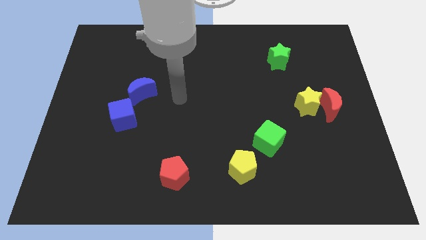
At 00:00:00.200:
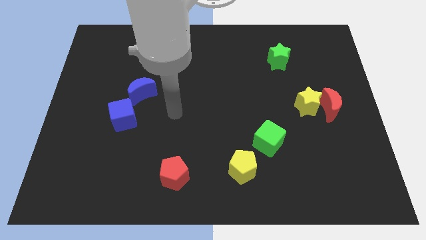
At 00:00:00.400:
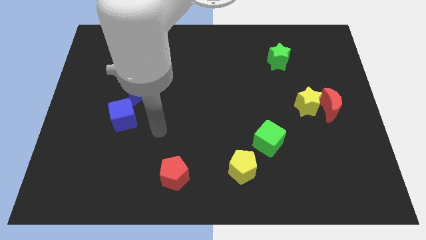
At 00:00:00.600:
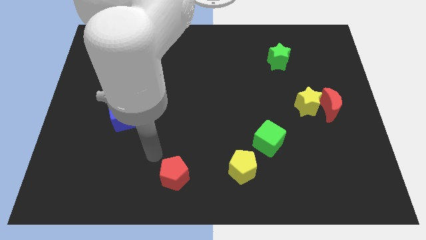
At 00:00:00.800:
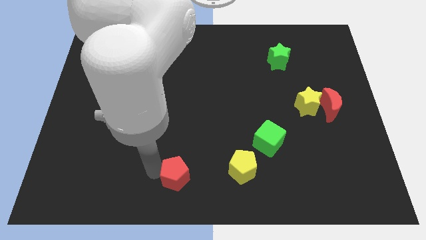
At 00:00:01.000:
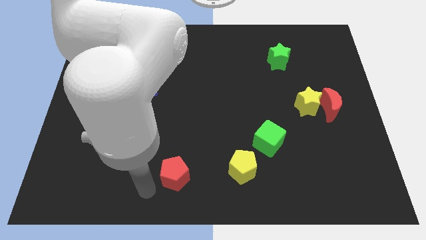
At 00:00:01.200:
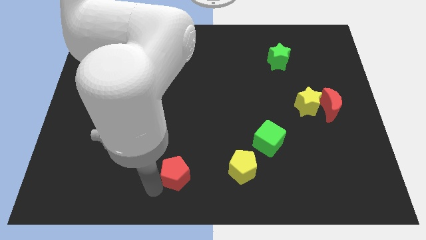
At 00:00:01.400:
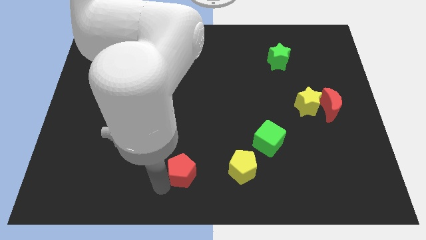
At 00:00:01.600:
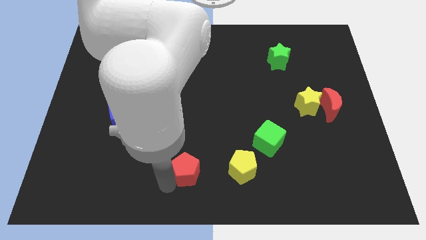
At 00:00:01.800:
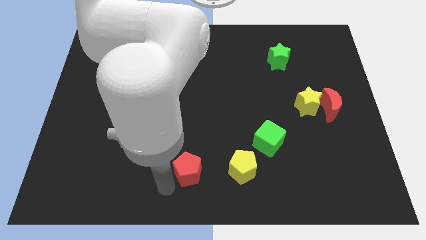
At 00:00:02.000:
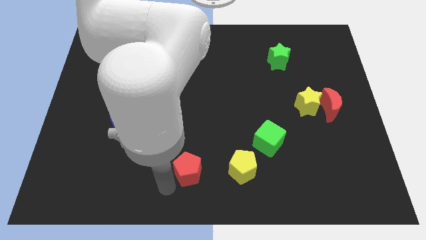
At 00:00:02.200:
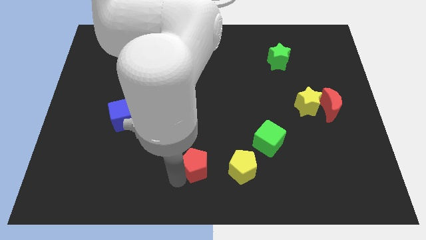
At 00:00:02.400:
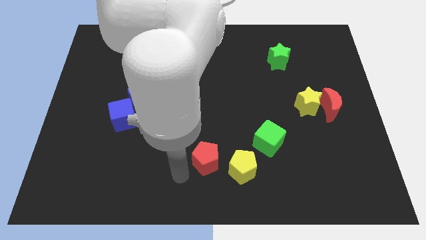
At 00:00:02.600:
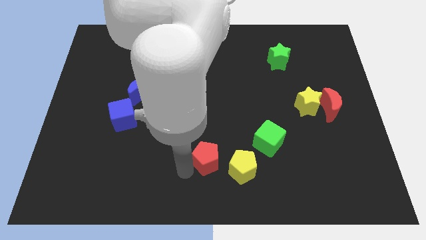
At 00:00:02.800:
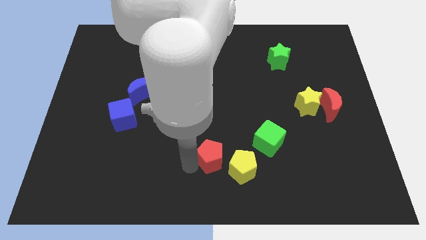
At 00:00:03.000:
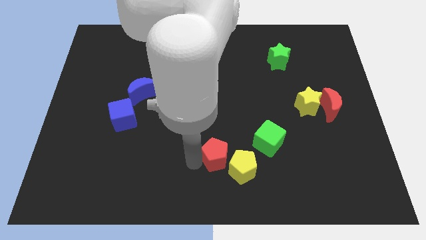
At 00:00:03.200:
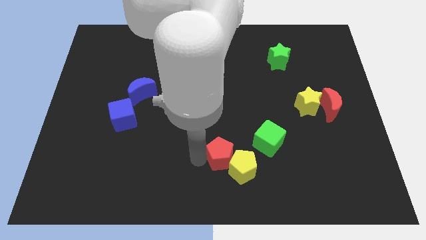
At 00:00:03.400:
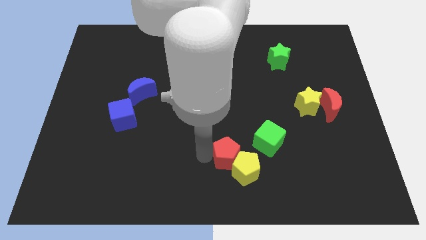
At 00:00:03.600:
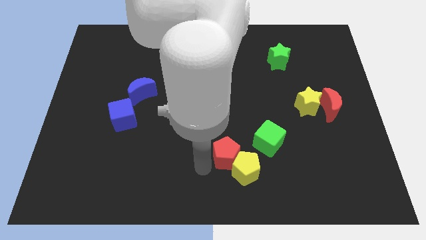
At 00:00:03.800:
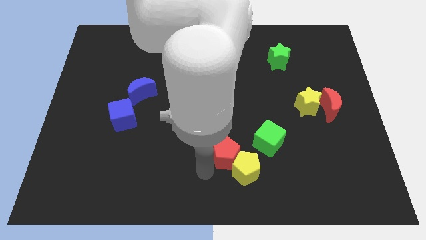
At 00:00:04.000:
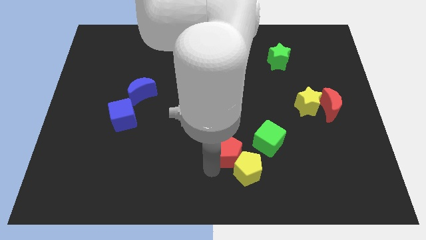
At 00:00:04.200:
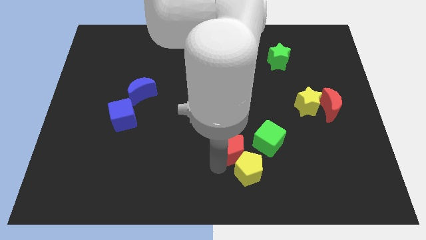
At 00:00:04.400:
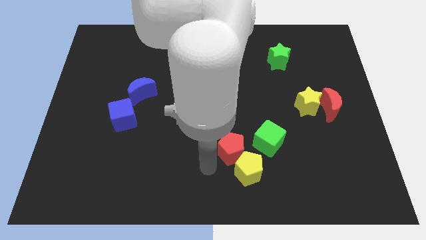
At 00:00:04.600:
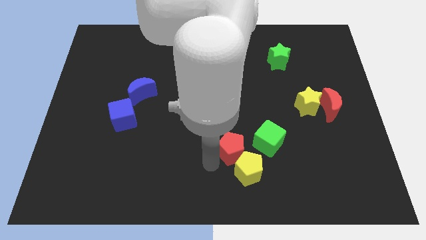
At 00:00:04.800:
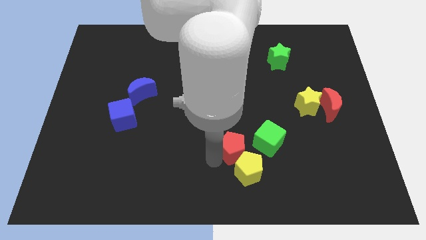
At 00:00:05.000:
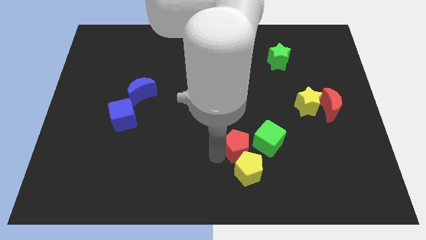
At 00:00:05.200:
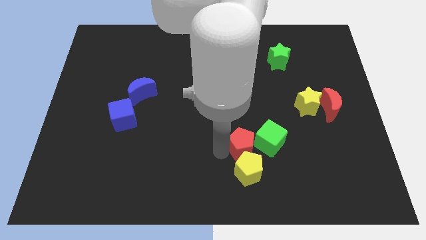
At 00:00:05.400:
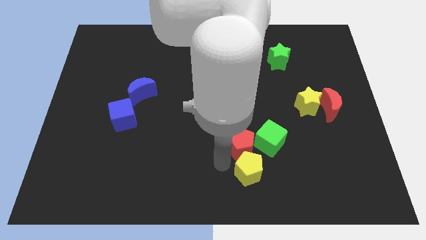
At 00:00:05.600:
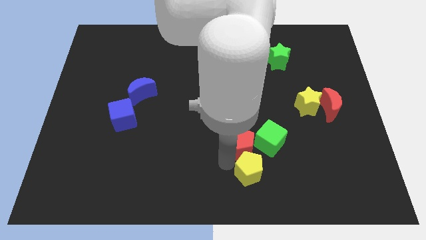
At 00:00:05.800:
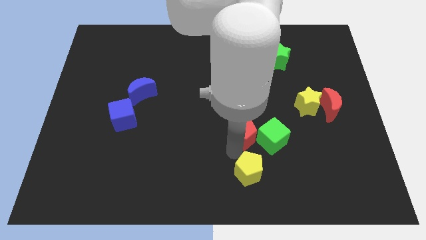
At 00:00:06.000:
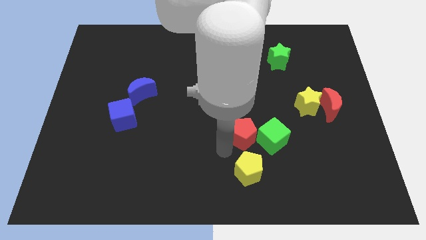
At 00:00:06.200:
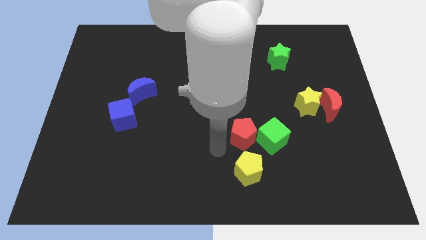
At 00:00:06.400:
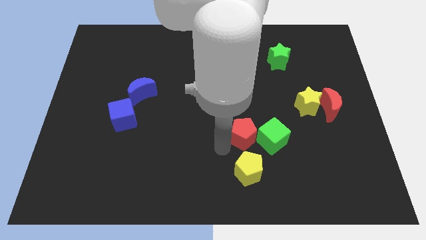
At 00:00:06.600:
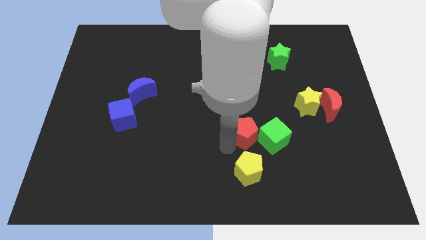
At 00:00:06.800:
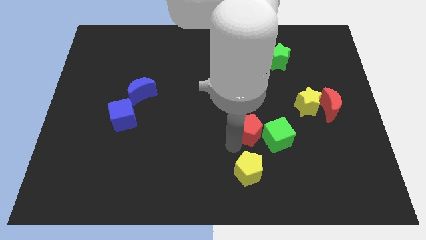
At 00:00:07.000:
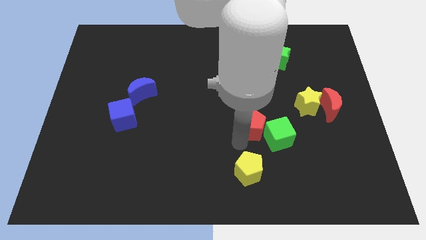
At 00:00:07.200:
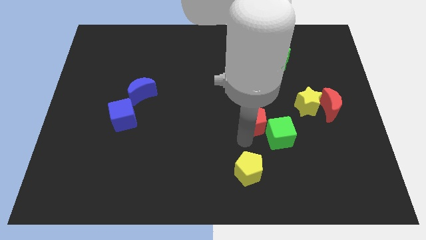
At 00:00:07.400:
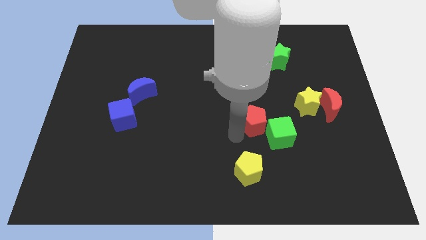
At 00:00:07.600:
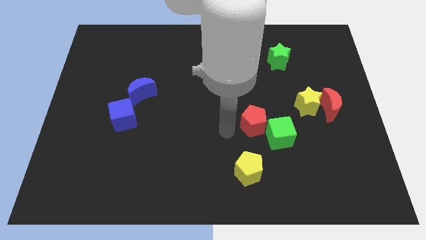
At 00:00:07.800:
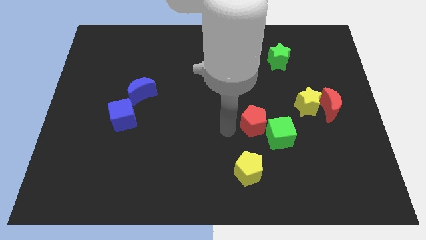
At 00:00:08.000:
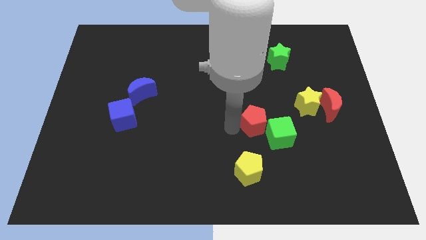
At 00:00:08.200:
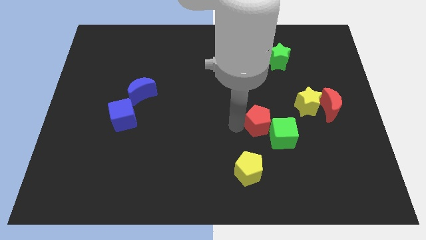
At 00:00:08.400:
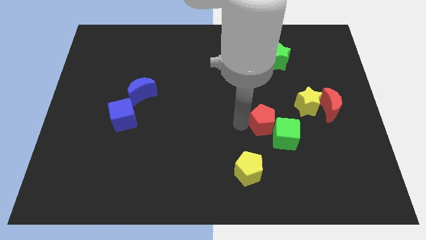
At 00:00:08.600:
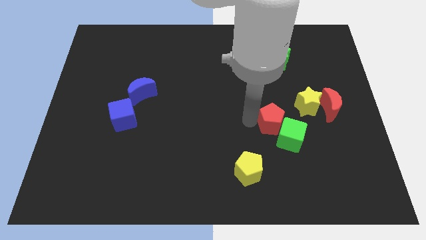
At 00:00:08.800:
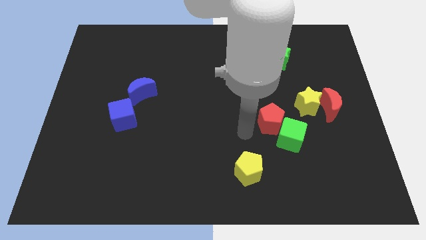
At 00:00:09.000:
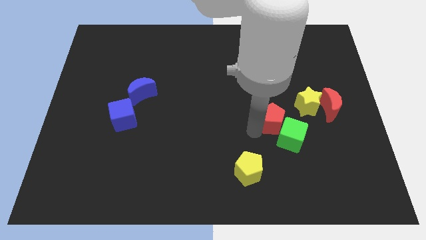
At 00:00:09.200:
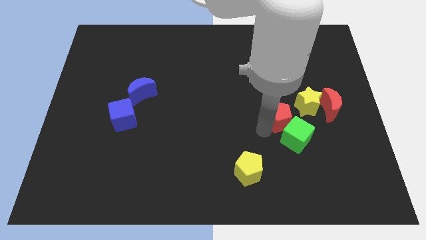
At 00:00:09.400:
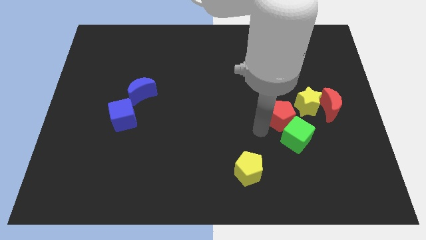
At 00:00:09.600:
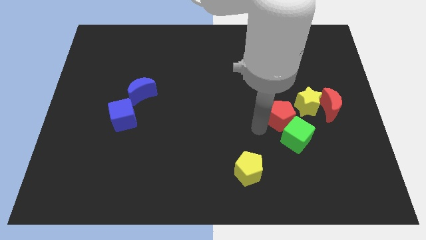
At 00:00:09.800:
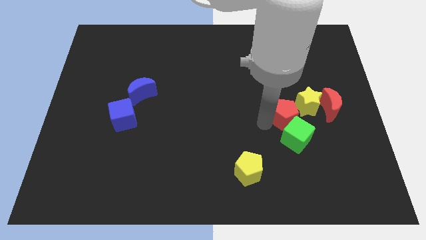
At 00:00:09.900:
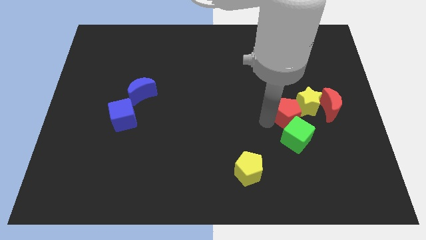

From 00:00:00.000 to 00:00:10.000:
put the red pentagon next to the yellow star

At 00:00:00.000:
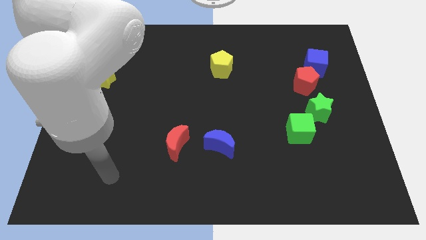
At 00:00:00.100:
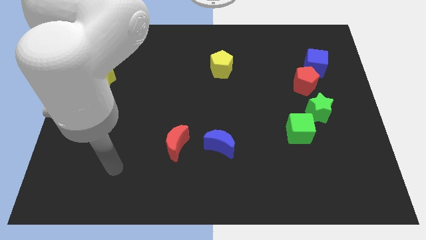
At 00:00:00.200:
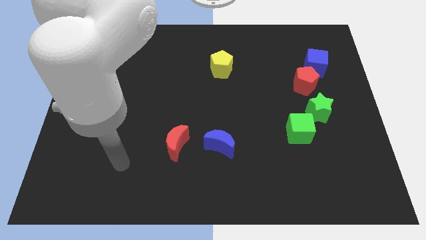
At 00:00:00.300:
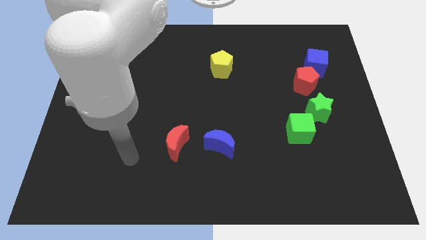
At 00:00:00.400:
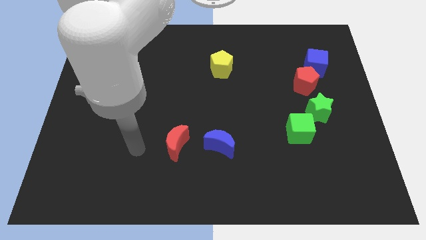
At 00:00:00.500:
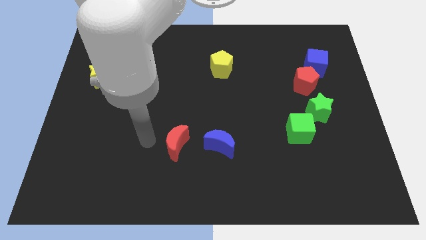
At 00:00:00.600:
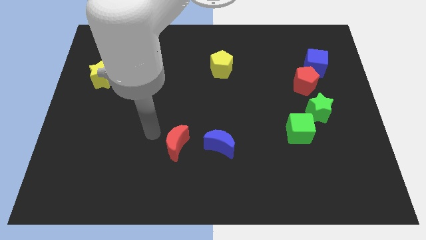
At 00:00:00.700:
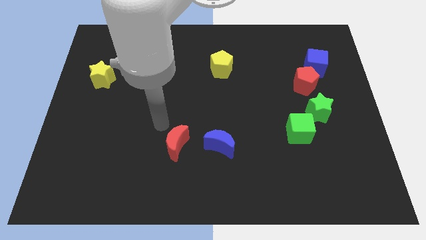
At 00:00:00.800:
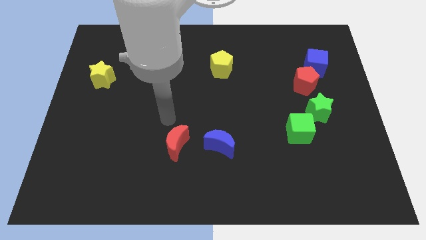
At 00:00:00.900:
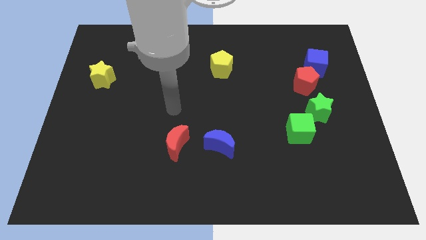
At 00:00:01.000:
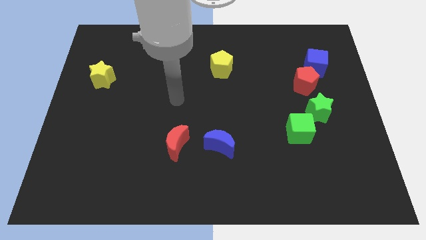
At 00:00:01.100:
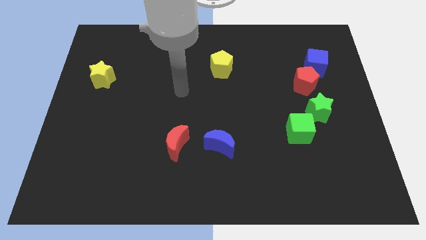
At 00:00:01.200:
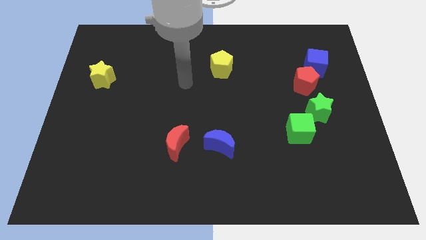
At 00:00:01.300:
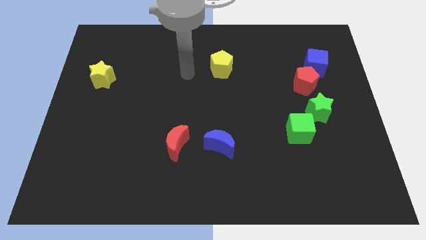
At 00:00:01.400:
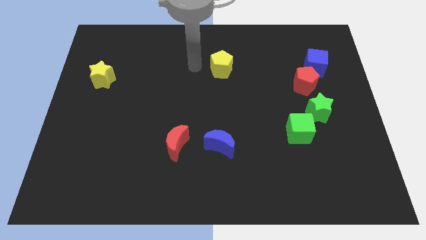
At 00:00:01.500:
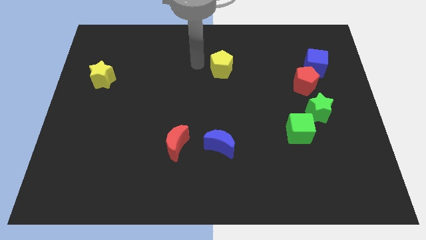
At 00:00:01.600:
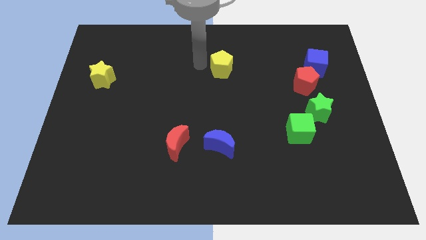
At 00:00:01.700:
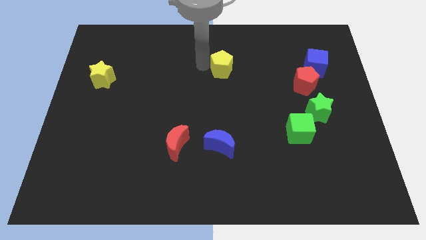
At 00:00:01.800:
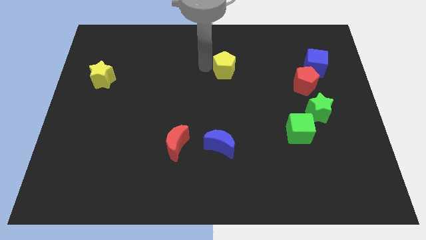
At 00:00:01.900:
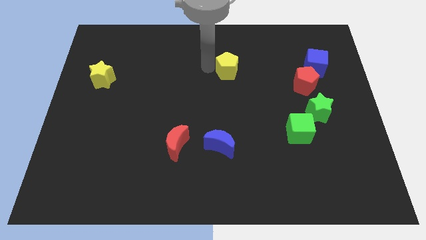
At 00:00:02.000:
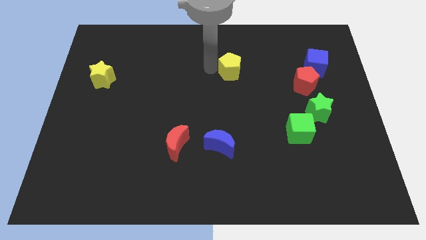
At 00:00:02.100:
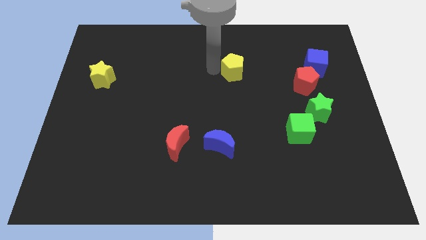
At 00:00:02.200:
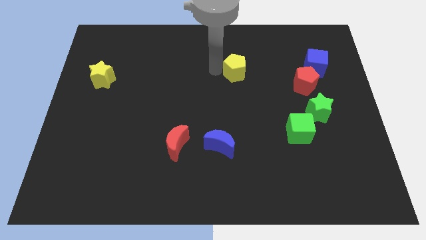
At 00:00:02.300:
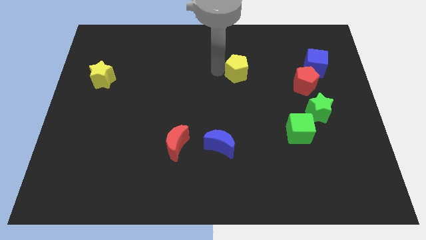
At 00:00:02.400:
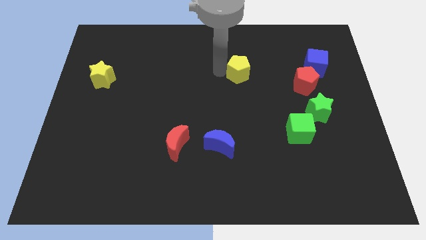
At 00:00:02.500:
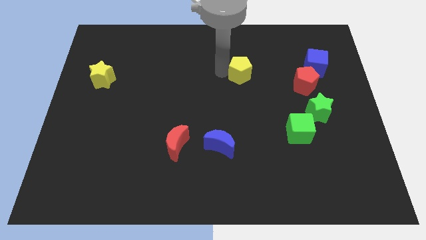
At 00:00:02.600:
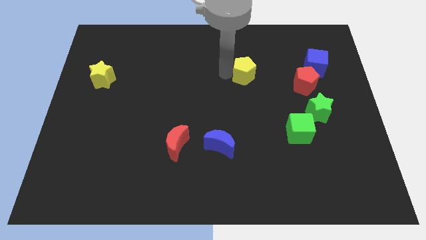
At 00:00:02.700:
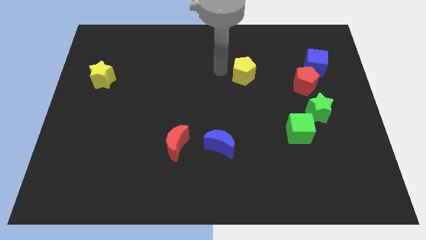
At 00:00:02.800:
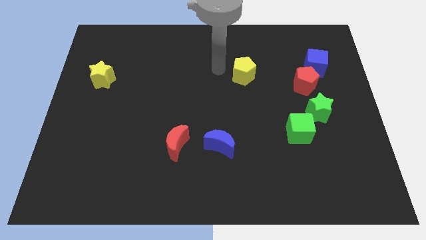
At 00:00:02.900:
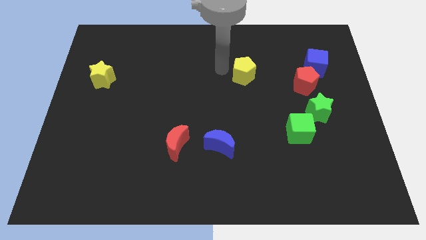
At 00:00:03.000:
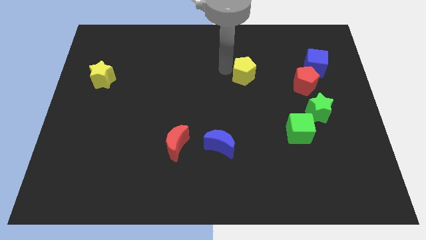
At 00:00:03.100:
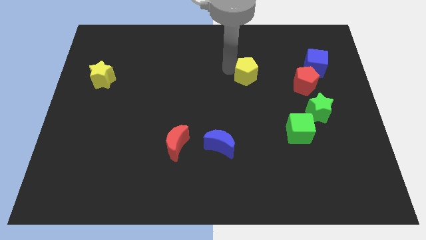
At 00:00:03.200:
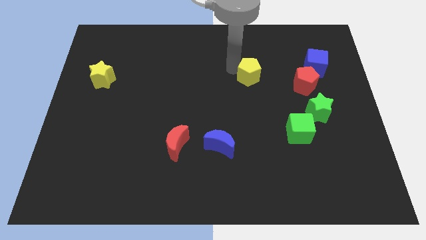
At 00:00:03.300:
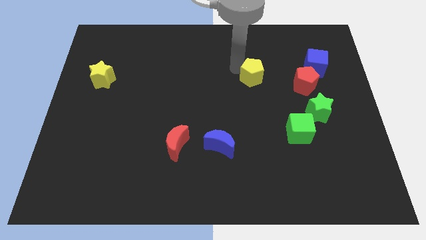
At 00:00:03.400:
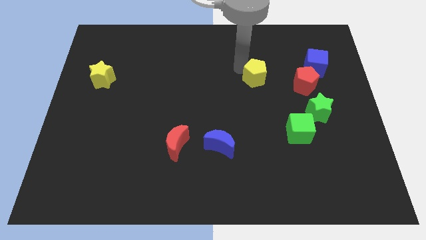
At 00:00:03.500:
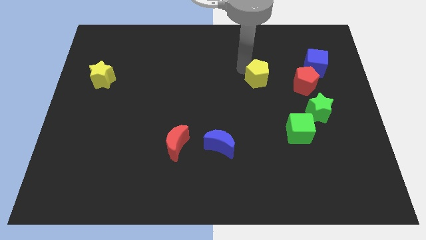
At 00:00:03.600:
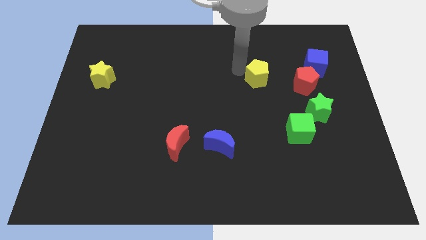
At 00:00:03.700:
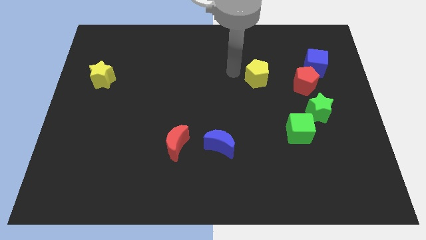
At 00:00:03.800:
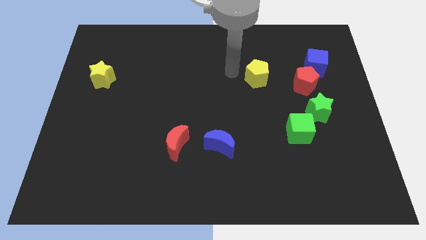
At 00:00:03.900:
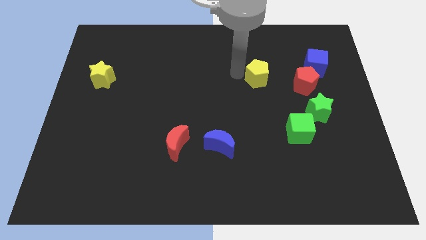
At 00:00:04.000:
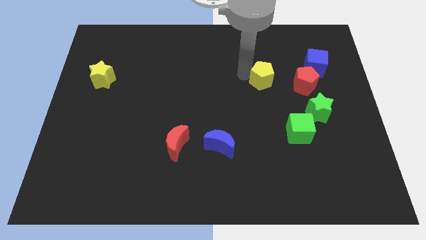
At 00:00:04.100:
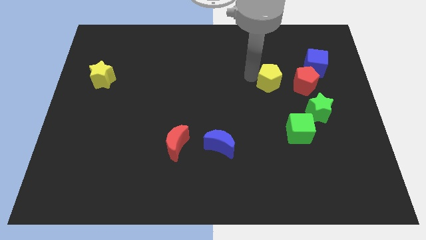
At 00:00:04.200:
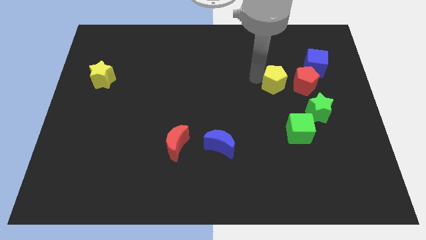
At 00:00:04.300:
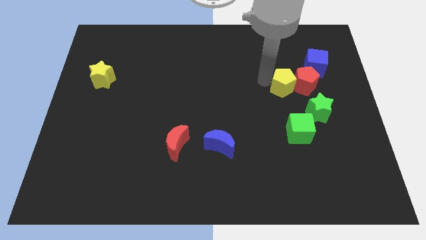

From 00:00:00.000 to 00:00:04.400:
slide the yellow pentagon to the red pentagon
